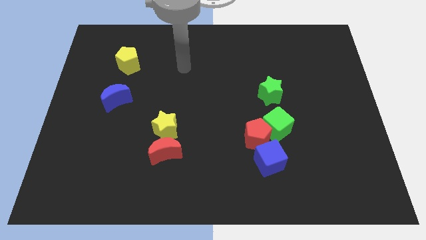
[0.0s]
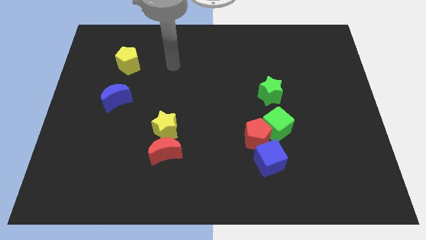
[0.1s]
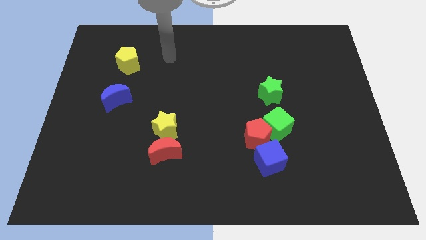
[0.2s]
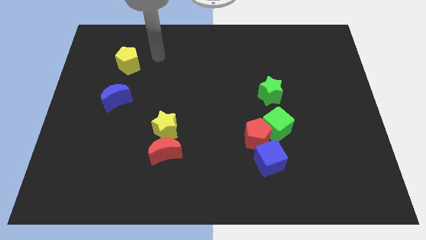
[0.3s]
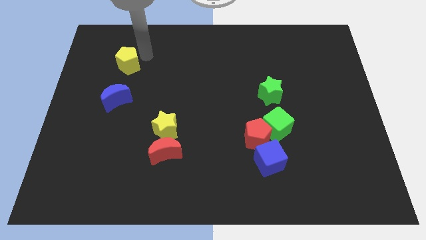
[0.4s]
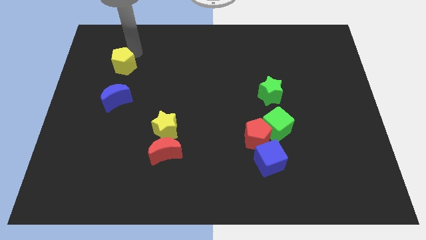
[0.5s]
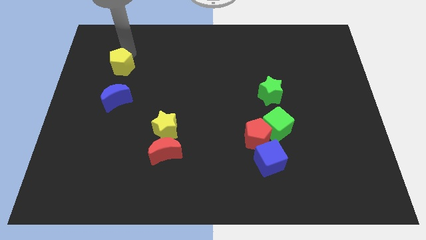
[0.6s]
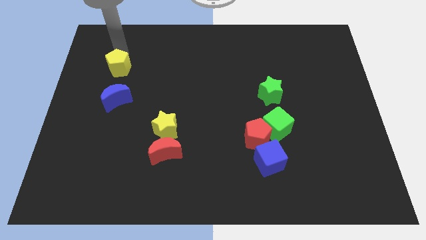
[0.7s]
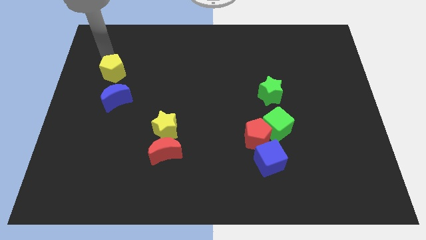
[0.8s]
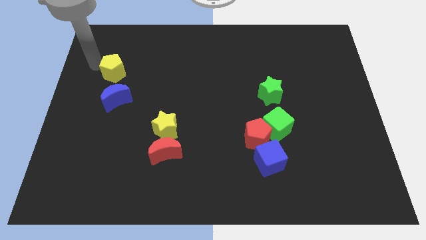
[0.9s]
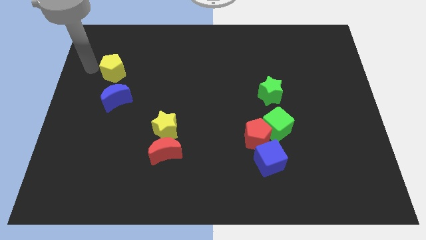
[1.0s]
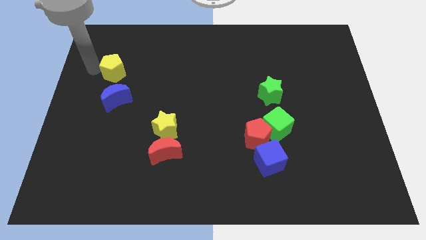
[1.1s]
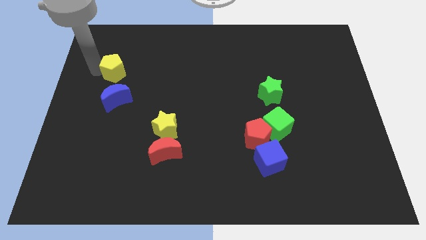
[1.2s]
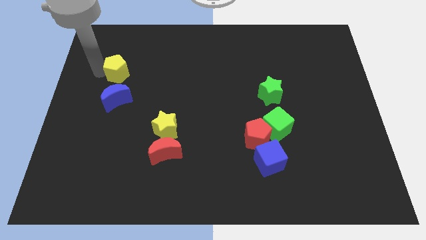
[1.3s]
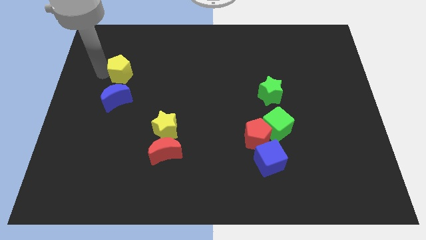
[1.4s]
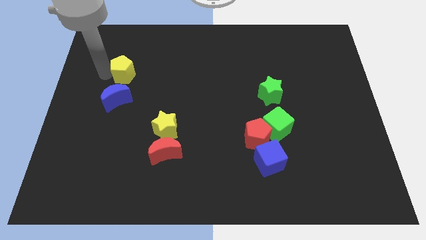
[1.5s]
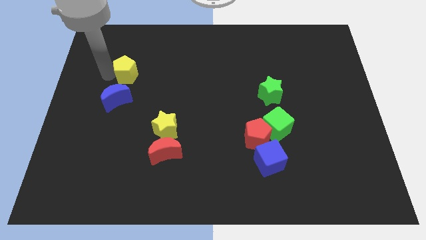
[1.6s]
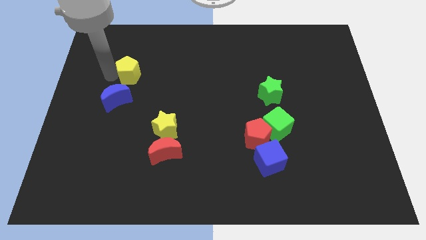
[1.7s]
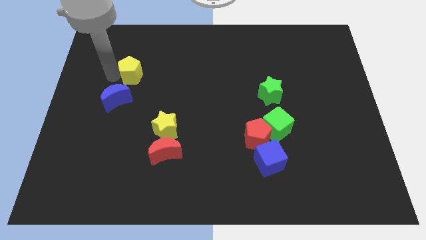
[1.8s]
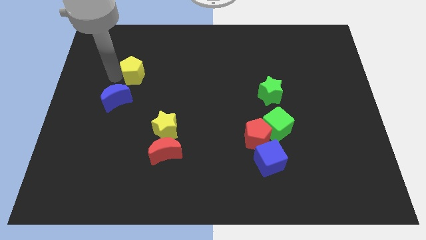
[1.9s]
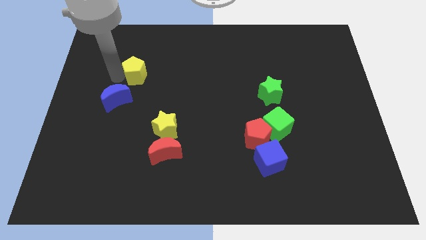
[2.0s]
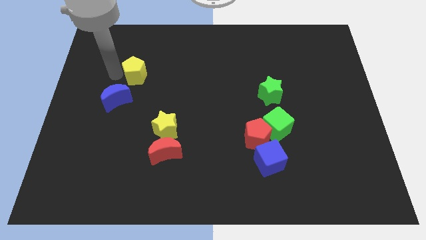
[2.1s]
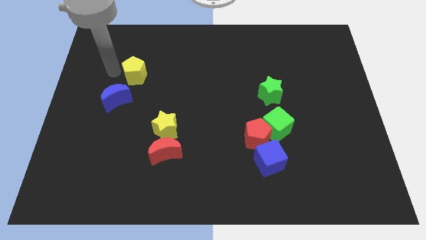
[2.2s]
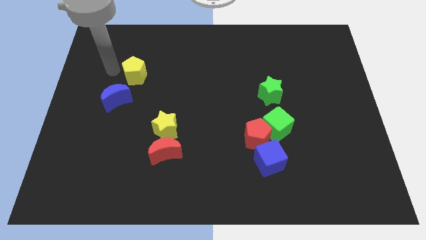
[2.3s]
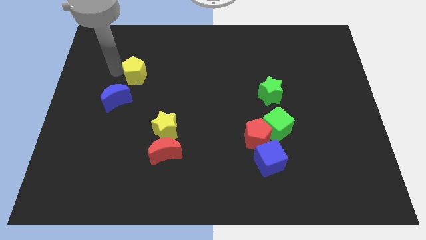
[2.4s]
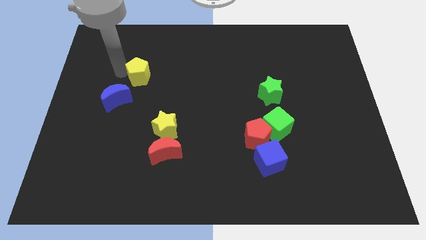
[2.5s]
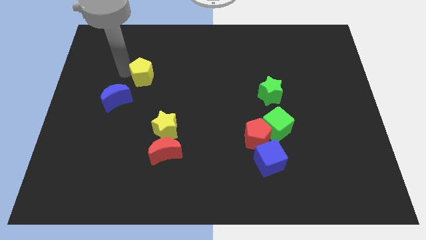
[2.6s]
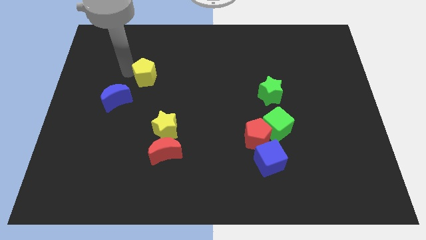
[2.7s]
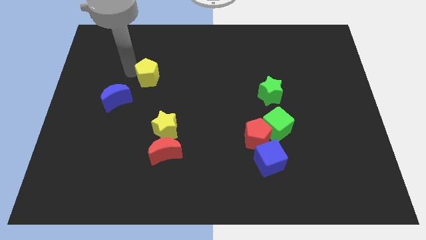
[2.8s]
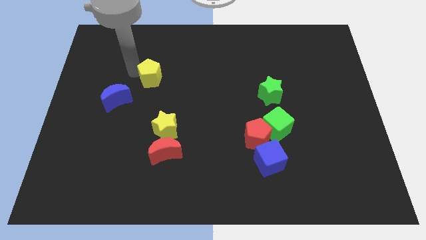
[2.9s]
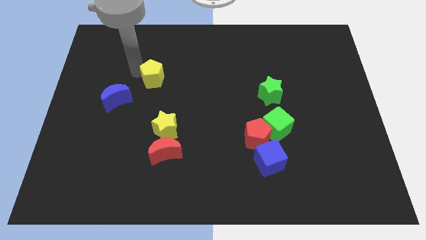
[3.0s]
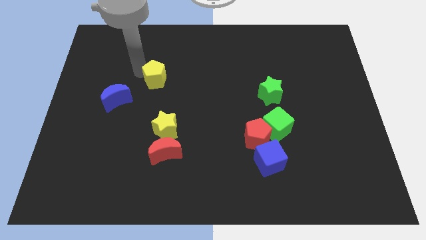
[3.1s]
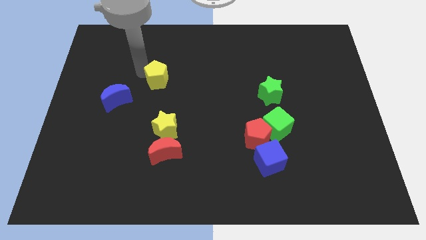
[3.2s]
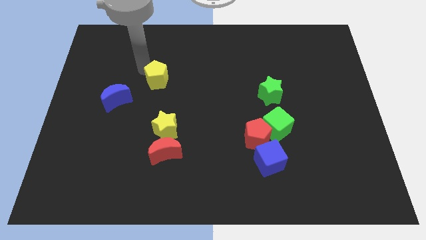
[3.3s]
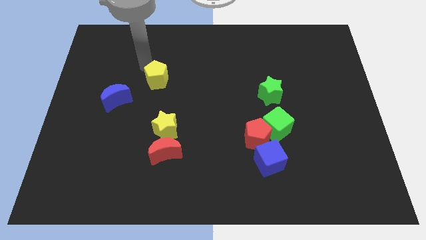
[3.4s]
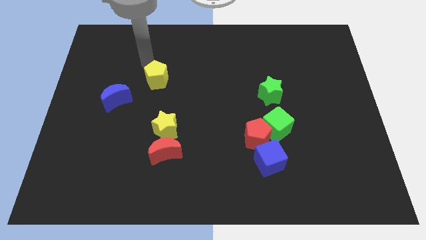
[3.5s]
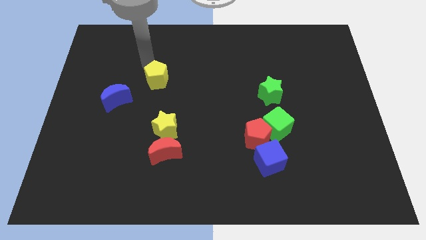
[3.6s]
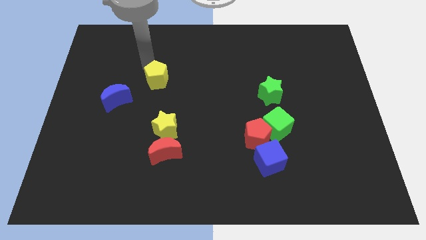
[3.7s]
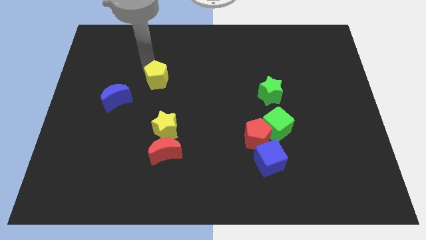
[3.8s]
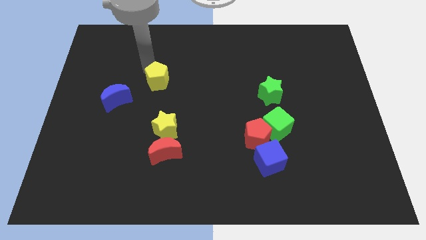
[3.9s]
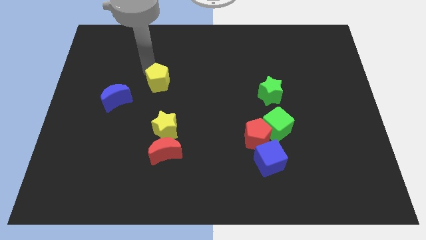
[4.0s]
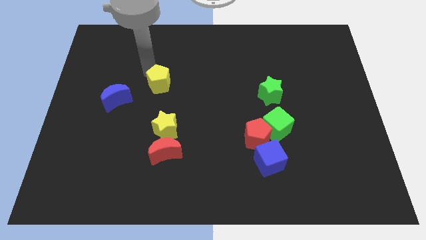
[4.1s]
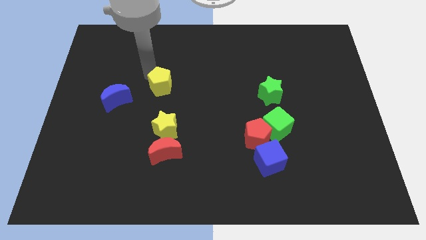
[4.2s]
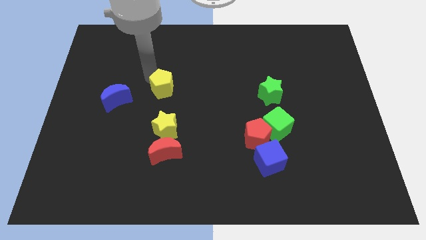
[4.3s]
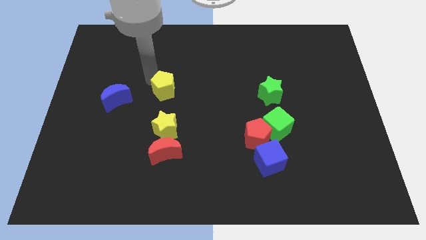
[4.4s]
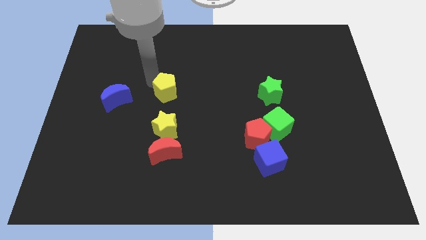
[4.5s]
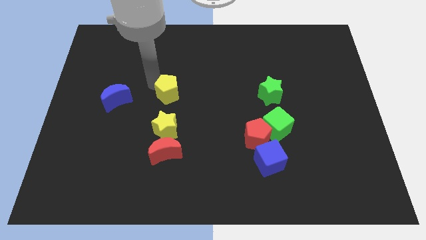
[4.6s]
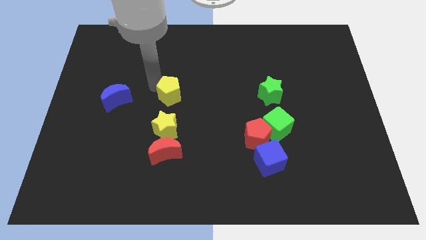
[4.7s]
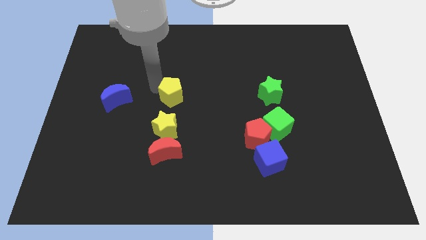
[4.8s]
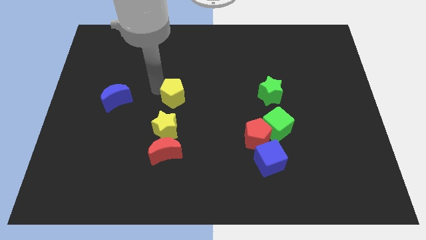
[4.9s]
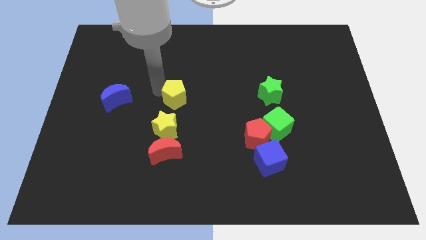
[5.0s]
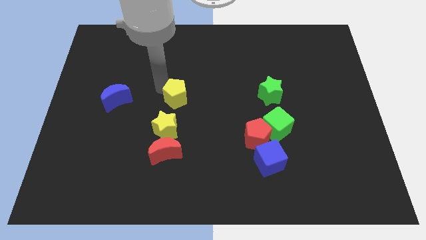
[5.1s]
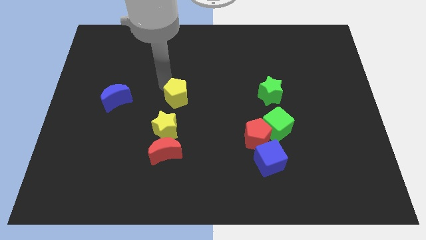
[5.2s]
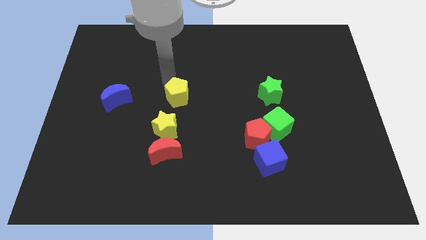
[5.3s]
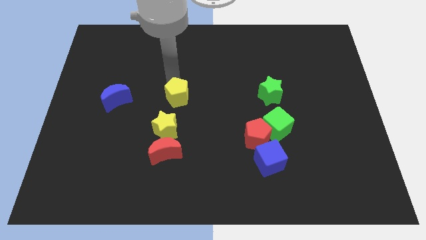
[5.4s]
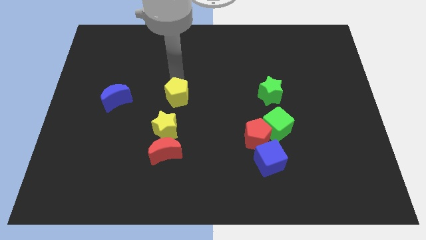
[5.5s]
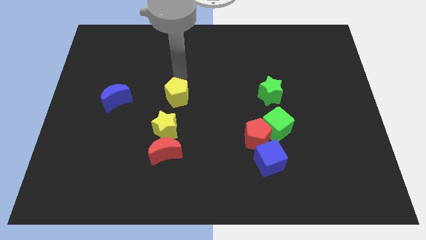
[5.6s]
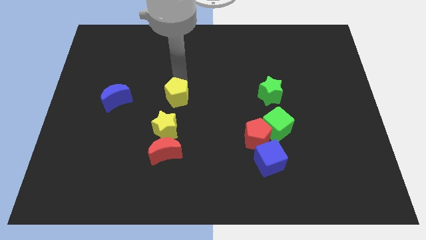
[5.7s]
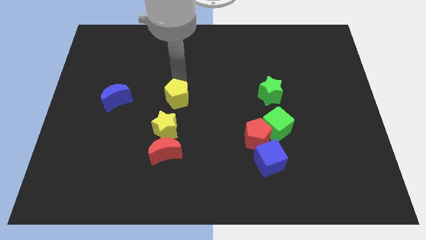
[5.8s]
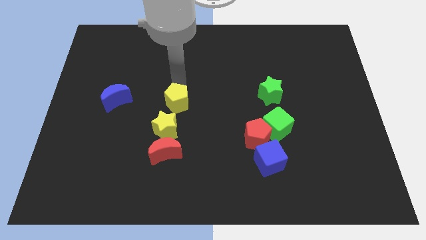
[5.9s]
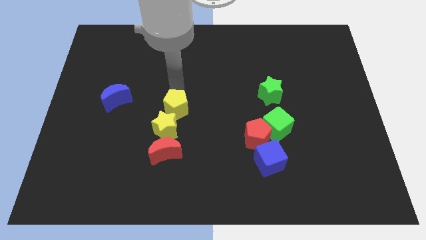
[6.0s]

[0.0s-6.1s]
slide the yellow pentagon downwards and then right

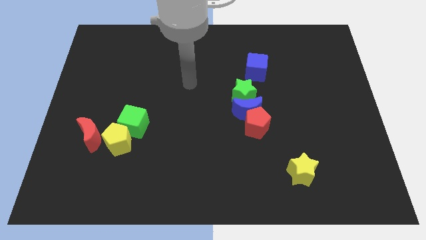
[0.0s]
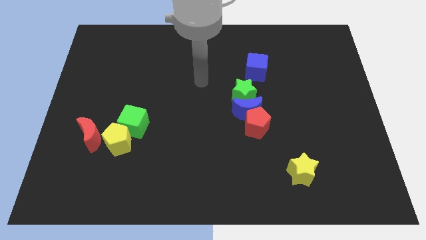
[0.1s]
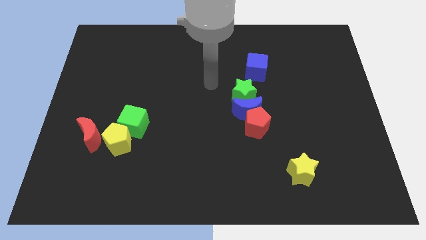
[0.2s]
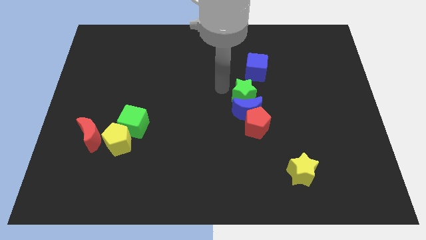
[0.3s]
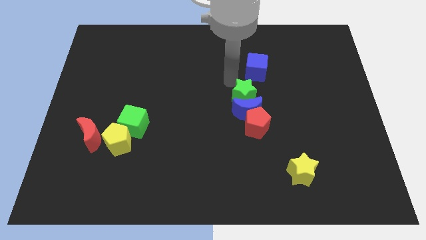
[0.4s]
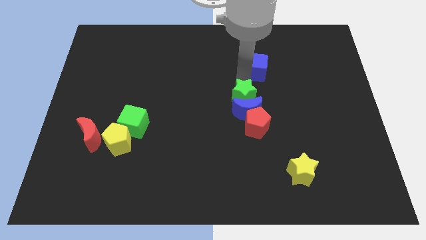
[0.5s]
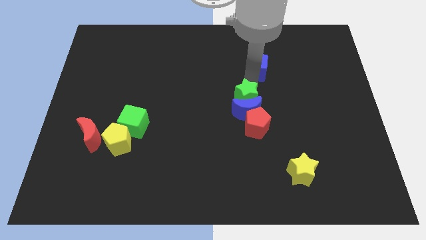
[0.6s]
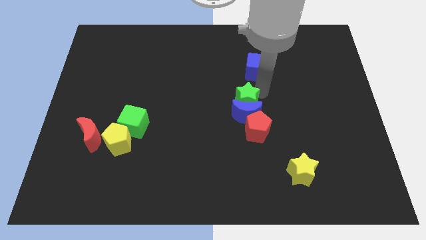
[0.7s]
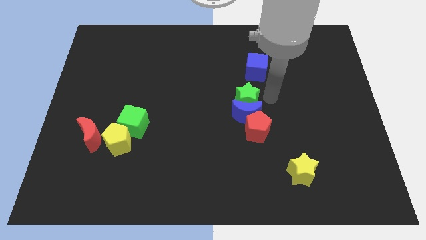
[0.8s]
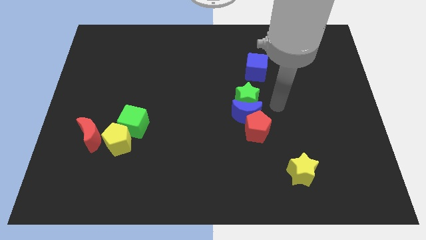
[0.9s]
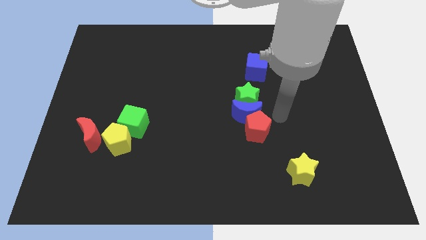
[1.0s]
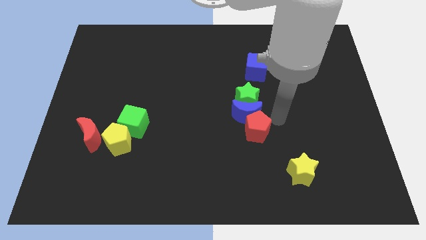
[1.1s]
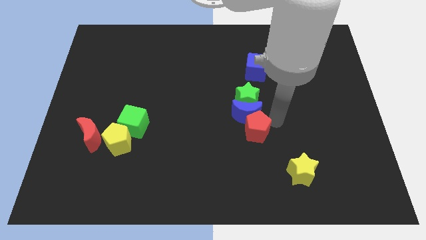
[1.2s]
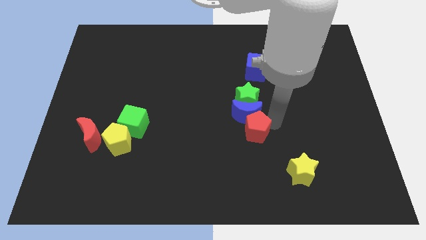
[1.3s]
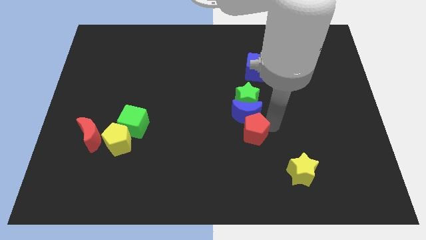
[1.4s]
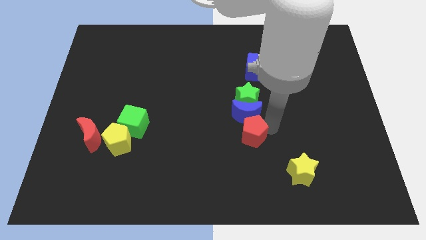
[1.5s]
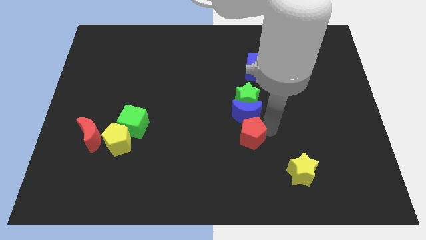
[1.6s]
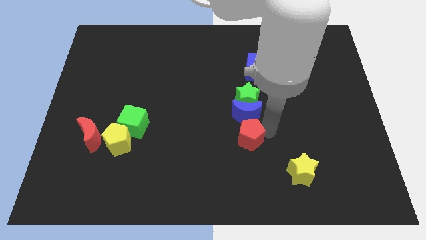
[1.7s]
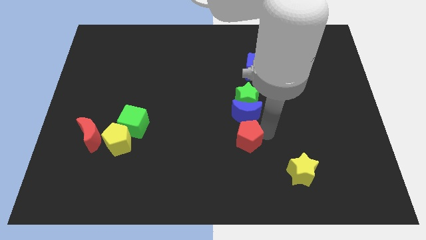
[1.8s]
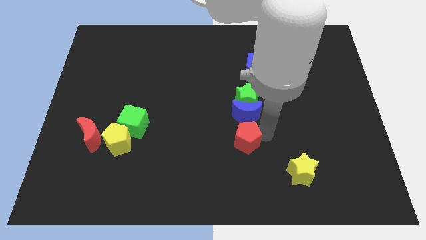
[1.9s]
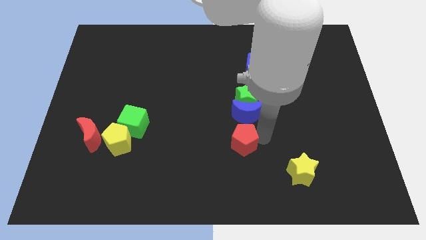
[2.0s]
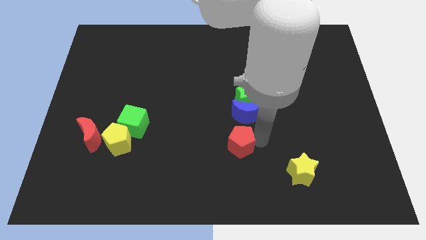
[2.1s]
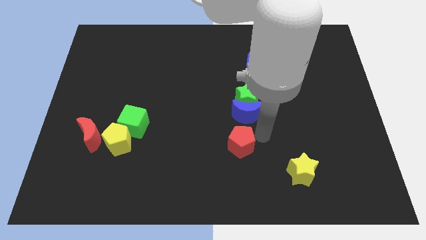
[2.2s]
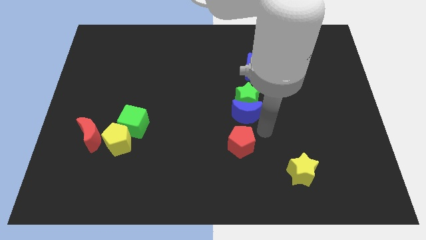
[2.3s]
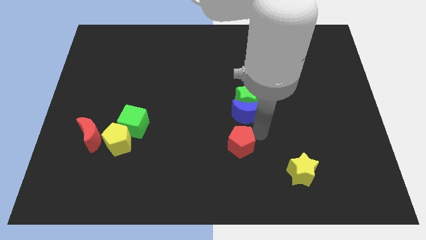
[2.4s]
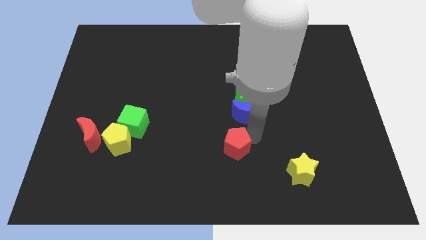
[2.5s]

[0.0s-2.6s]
push the red pentagon a bit downwards and left
